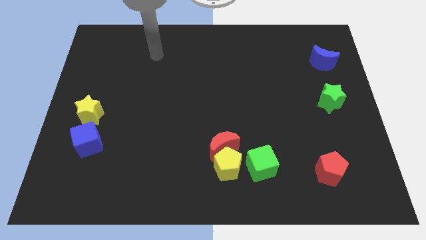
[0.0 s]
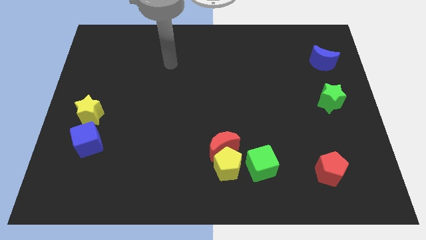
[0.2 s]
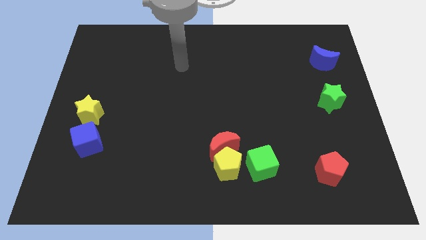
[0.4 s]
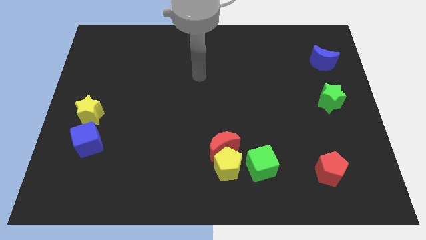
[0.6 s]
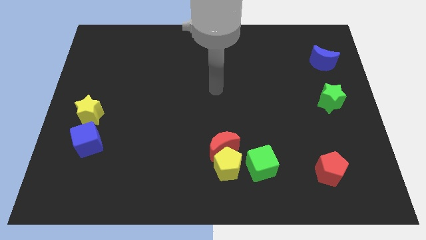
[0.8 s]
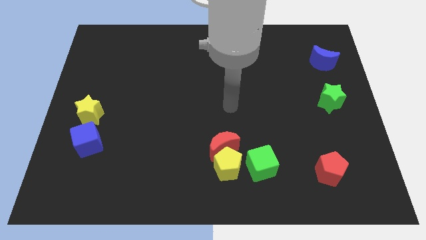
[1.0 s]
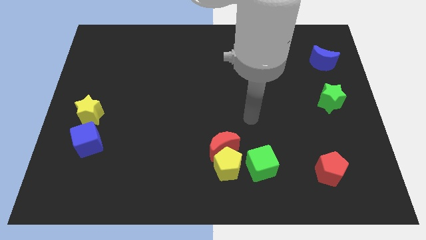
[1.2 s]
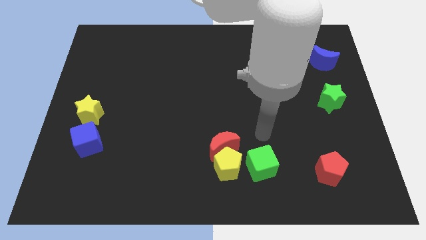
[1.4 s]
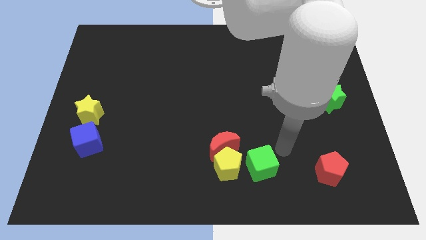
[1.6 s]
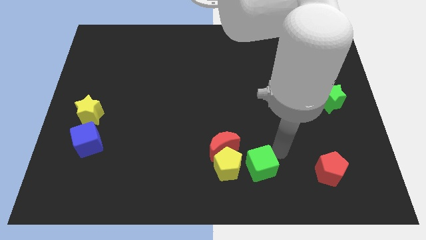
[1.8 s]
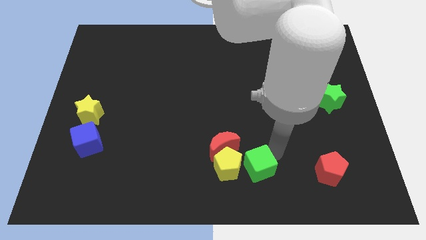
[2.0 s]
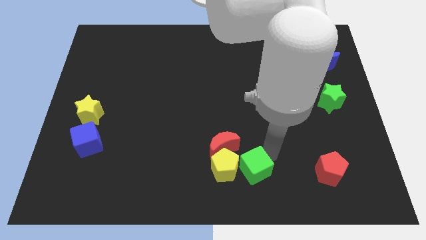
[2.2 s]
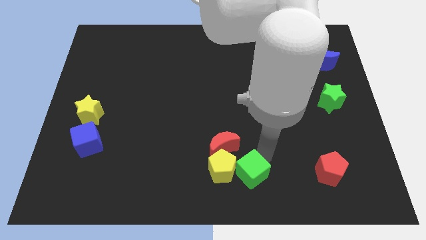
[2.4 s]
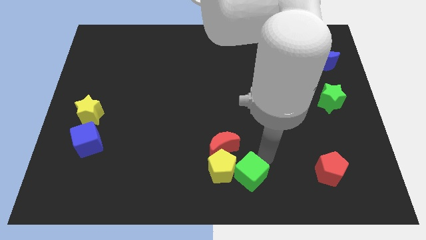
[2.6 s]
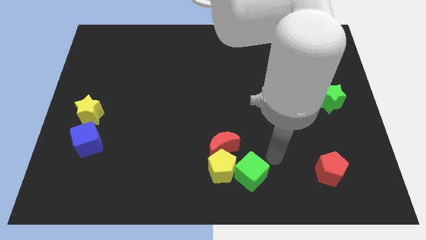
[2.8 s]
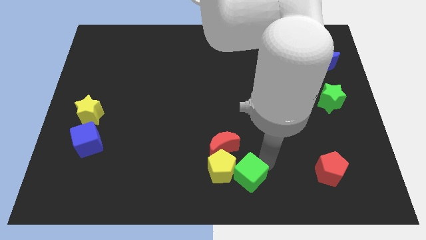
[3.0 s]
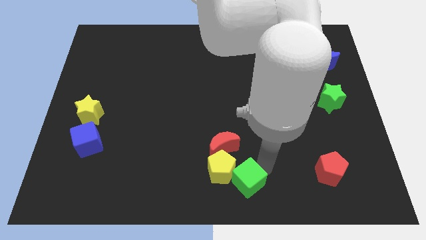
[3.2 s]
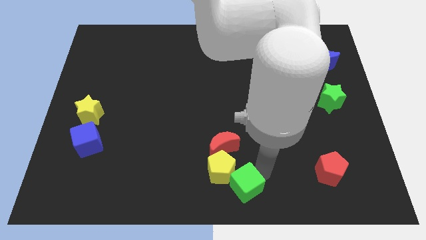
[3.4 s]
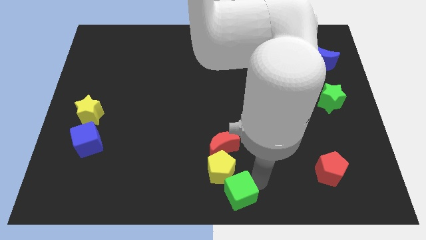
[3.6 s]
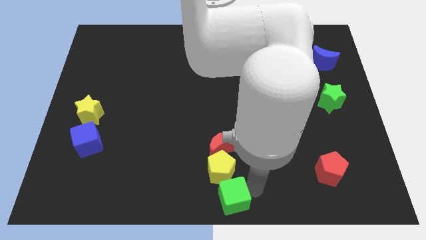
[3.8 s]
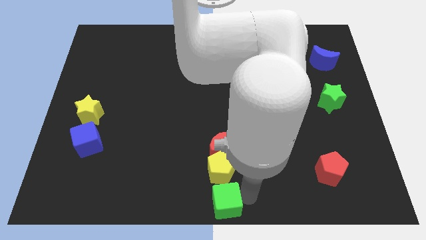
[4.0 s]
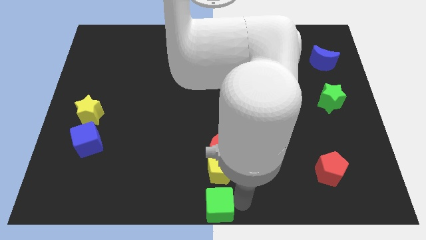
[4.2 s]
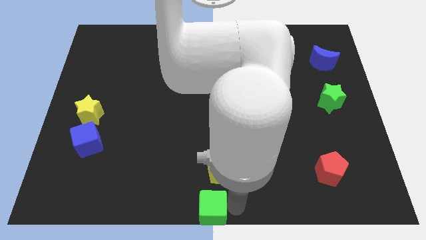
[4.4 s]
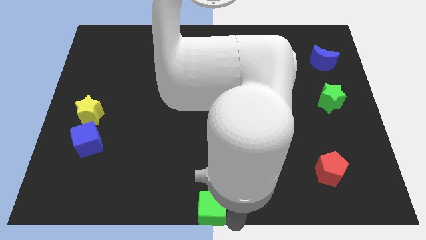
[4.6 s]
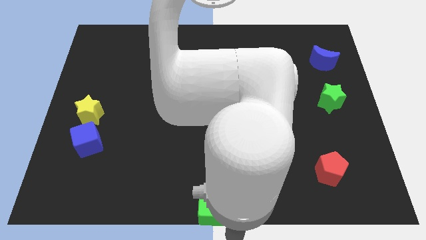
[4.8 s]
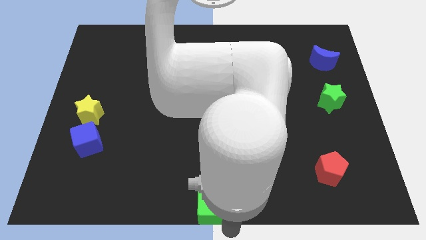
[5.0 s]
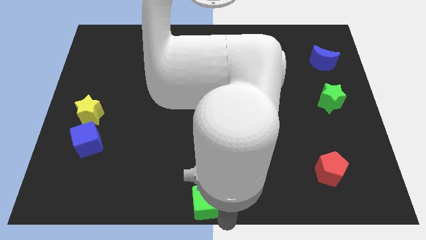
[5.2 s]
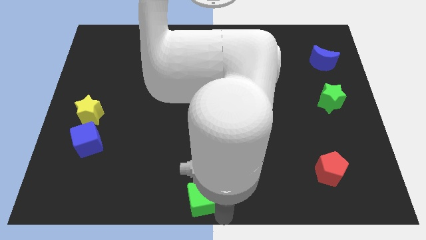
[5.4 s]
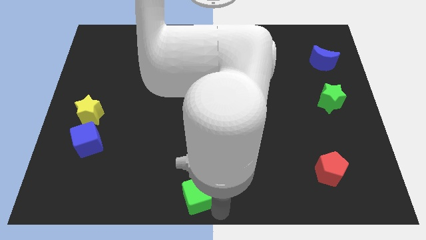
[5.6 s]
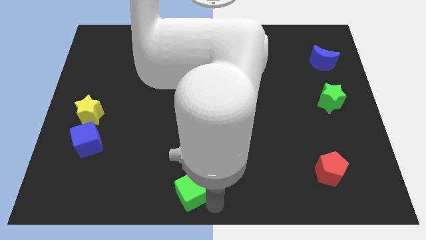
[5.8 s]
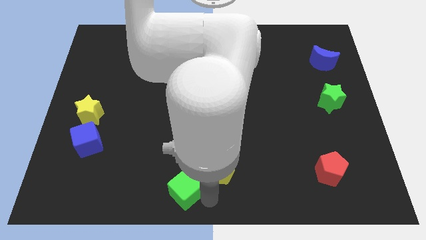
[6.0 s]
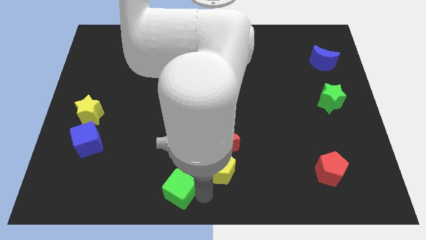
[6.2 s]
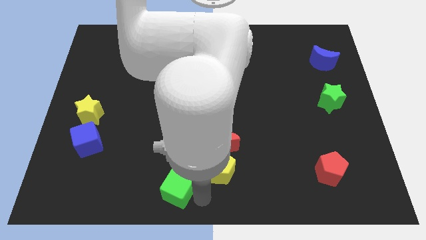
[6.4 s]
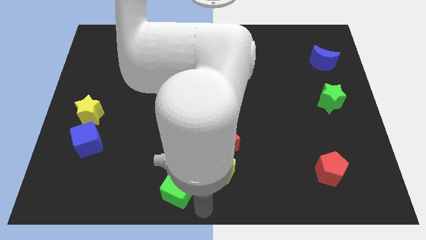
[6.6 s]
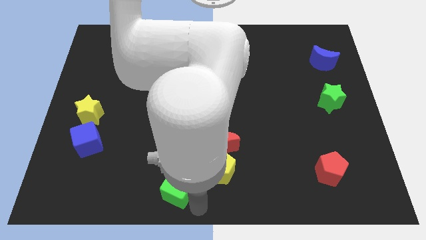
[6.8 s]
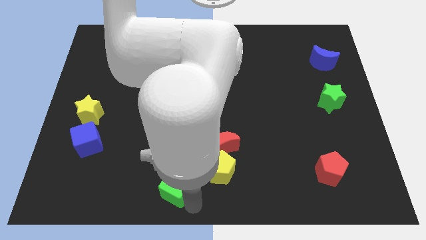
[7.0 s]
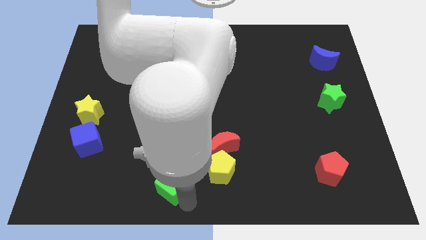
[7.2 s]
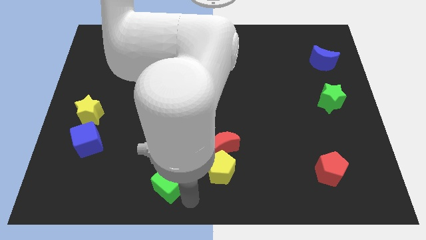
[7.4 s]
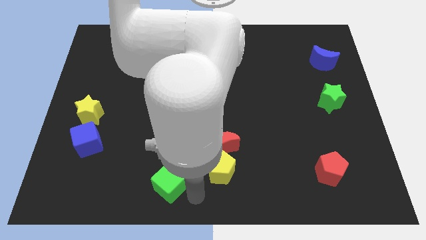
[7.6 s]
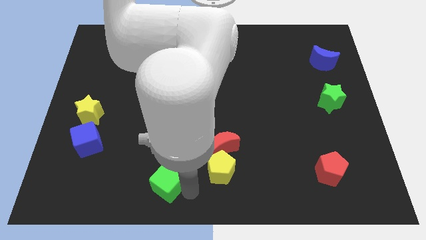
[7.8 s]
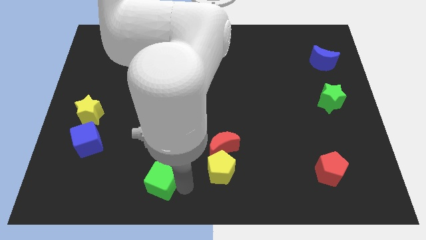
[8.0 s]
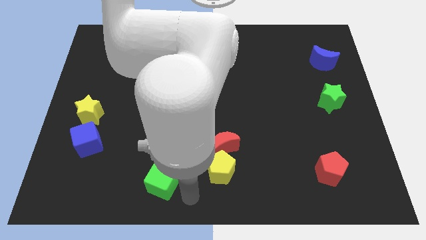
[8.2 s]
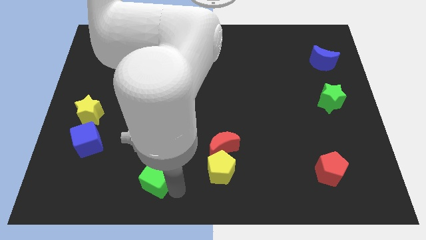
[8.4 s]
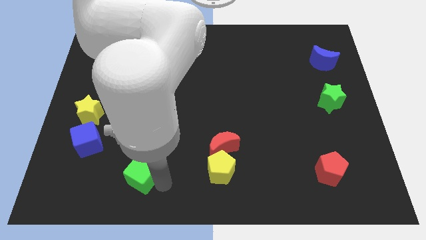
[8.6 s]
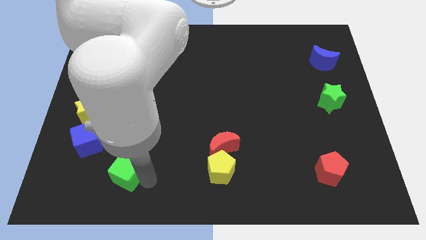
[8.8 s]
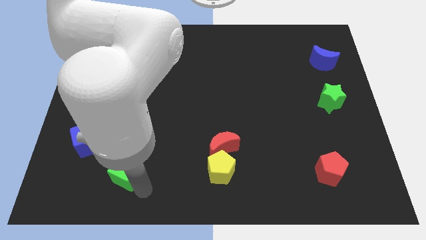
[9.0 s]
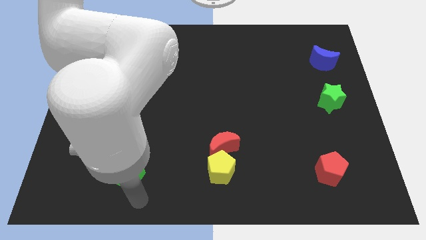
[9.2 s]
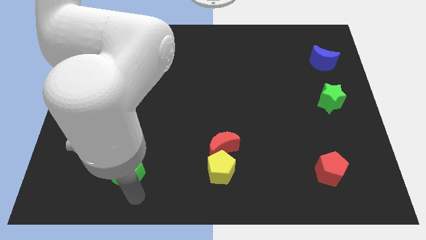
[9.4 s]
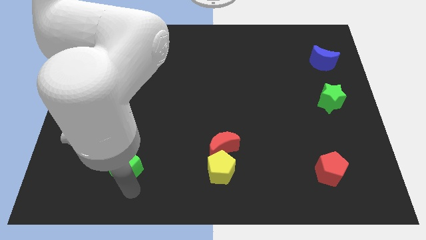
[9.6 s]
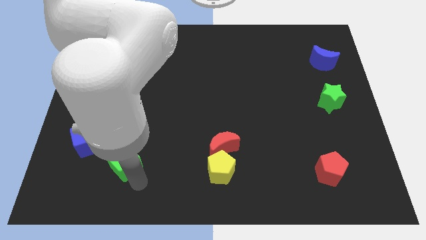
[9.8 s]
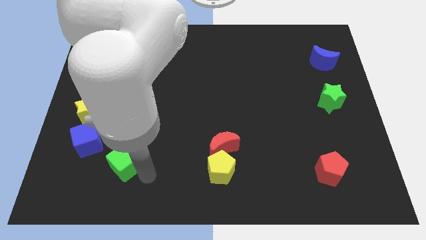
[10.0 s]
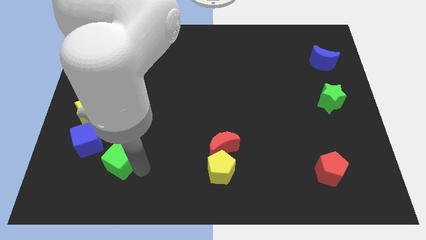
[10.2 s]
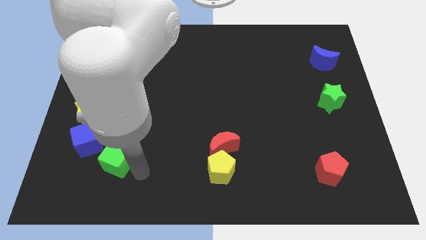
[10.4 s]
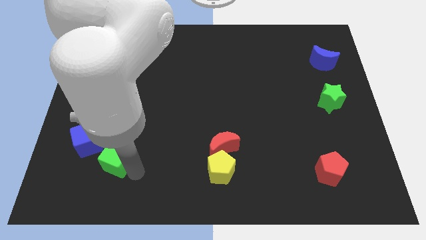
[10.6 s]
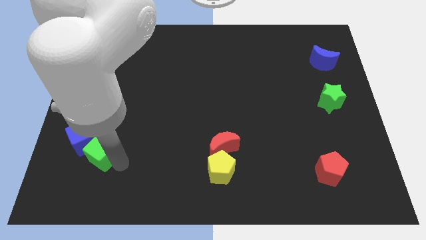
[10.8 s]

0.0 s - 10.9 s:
move the green cube next to the blue cube

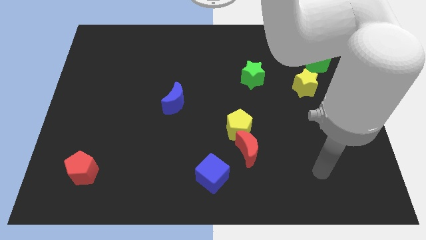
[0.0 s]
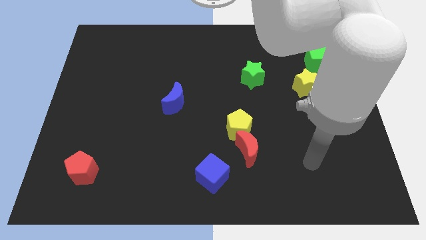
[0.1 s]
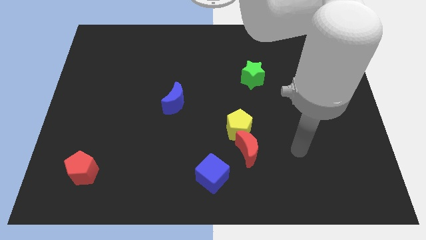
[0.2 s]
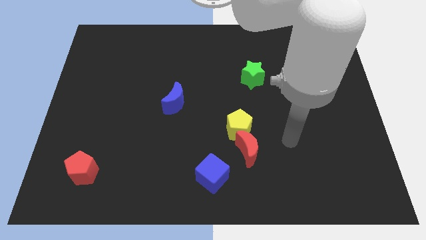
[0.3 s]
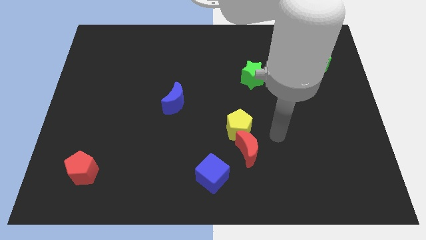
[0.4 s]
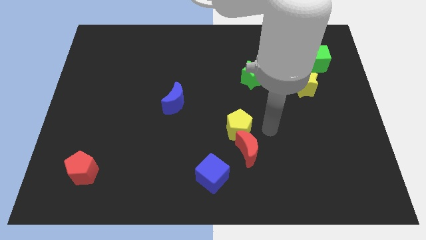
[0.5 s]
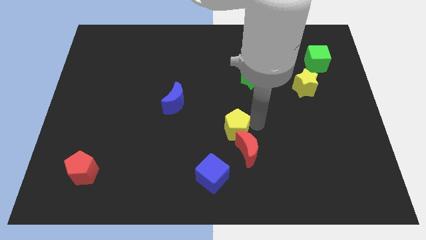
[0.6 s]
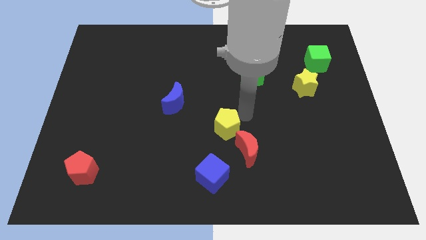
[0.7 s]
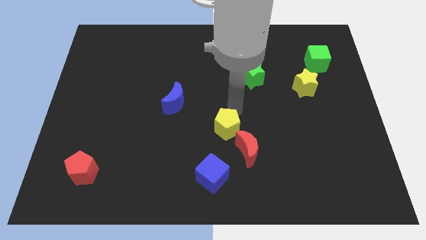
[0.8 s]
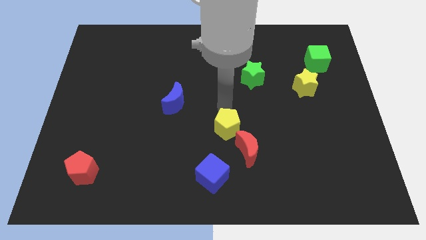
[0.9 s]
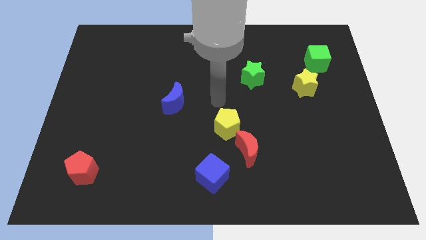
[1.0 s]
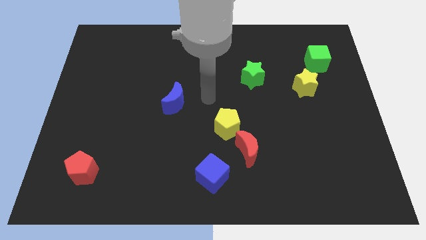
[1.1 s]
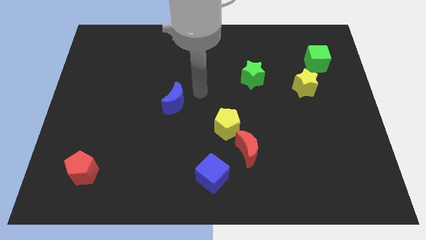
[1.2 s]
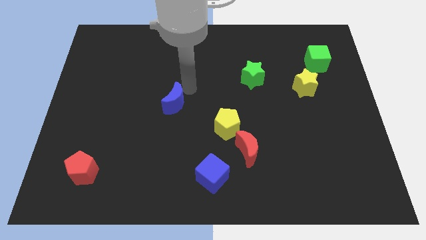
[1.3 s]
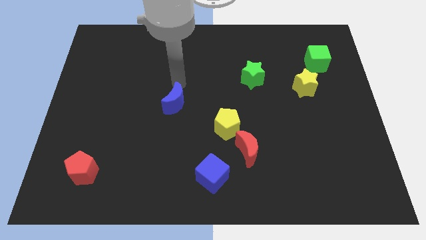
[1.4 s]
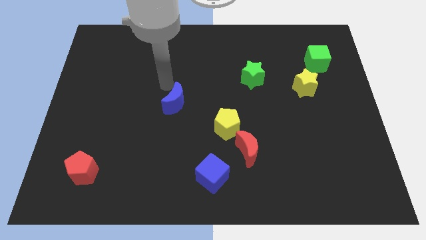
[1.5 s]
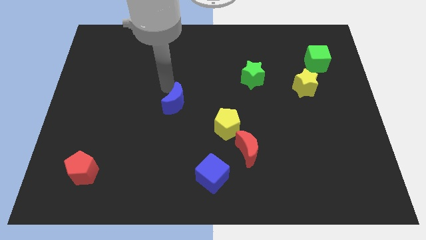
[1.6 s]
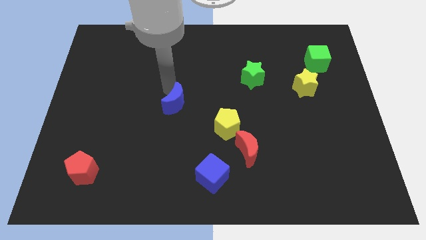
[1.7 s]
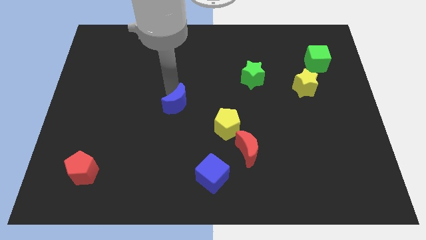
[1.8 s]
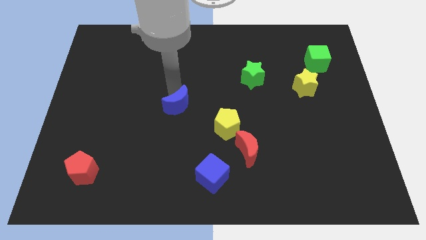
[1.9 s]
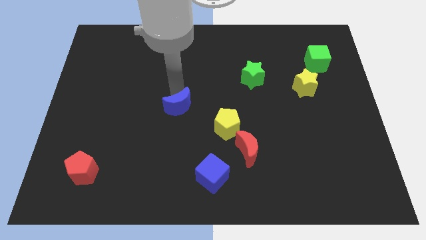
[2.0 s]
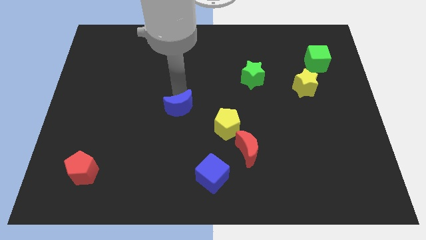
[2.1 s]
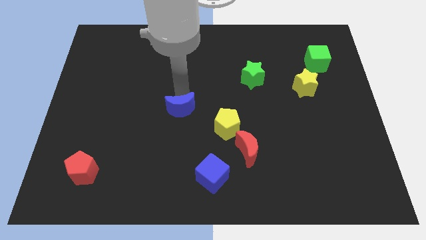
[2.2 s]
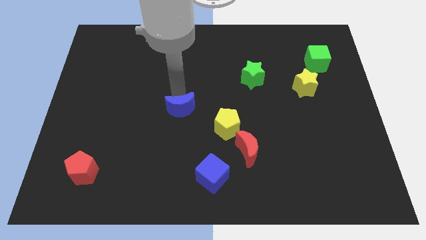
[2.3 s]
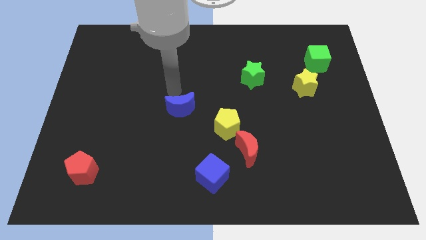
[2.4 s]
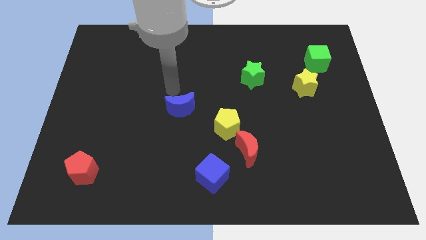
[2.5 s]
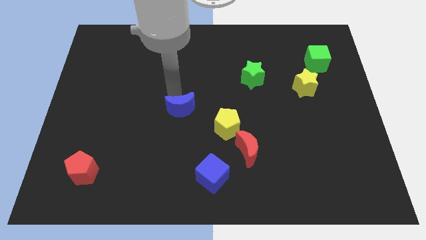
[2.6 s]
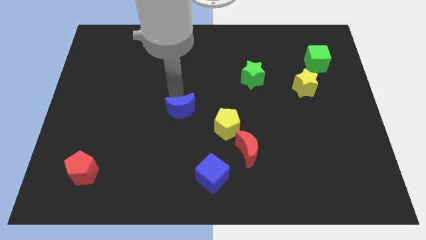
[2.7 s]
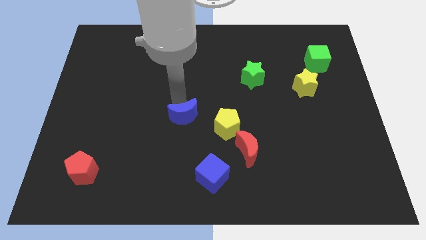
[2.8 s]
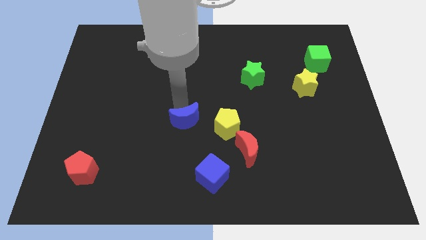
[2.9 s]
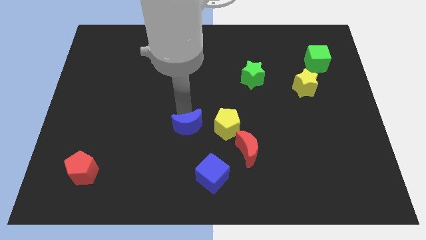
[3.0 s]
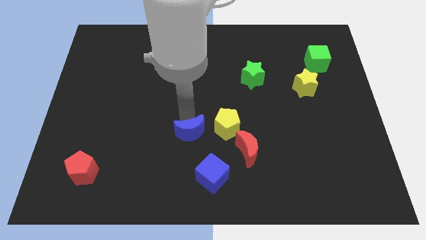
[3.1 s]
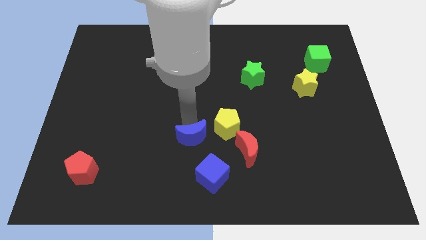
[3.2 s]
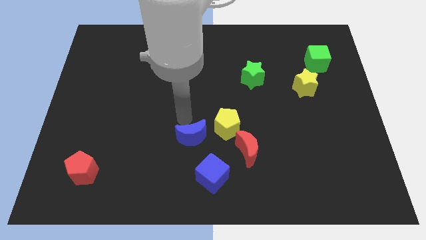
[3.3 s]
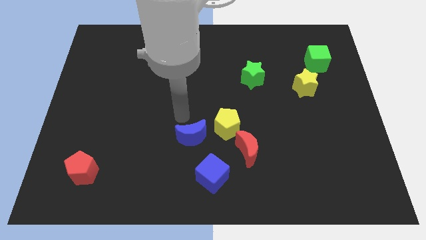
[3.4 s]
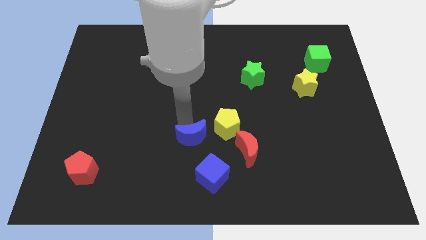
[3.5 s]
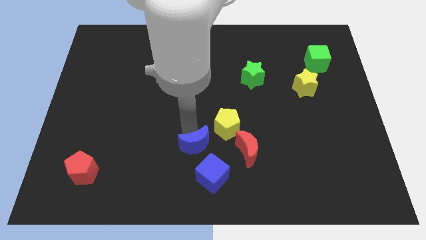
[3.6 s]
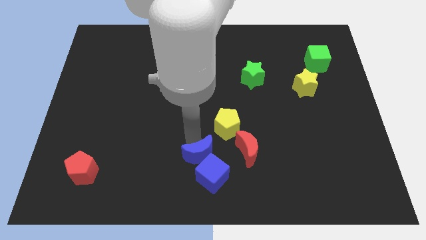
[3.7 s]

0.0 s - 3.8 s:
slide the blue moon close to the blue cube
